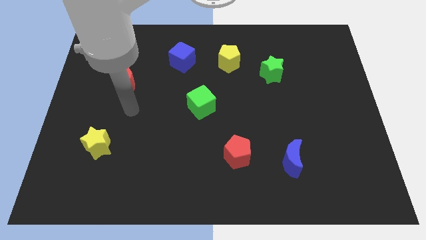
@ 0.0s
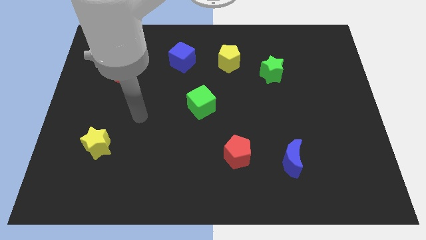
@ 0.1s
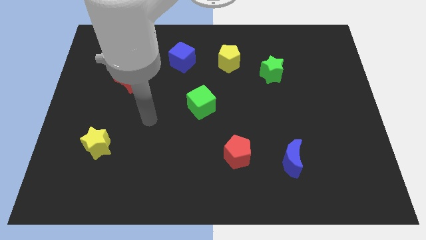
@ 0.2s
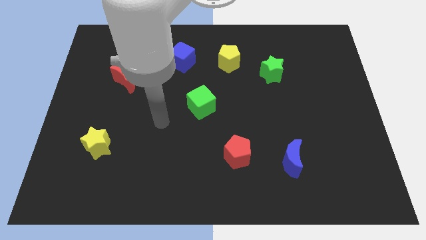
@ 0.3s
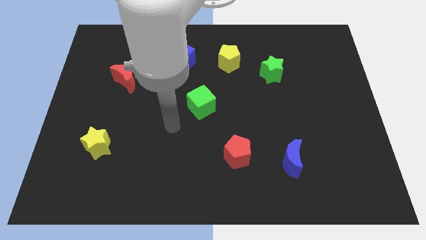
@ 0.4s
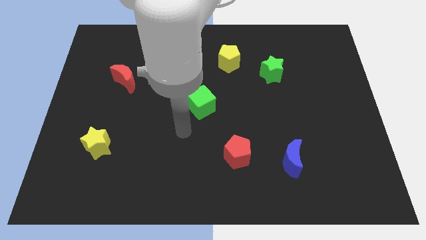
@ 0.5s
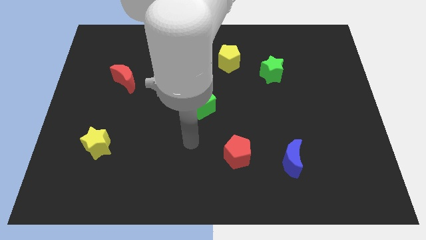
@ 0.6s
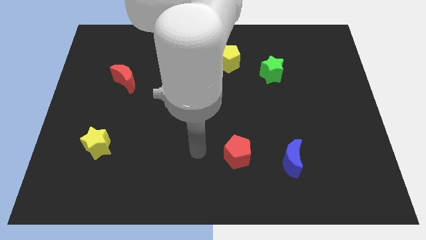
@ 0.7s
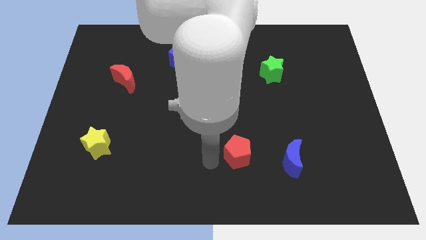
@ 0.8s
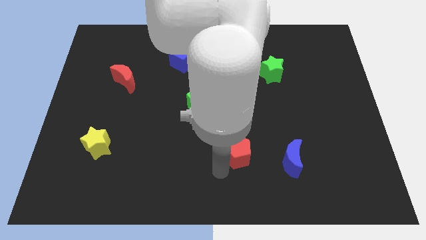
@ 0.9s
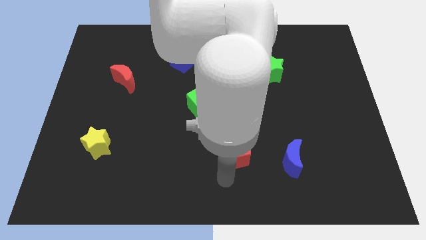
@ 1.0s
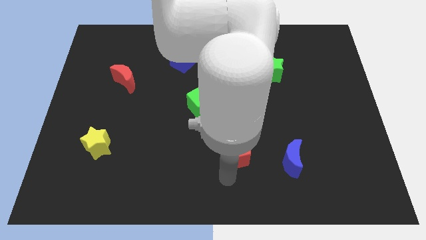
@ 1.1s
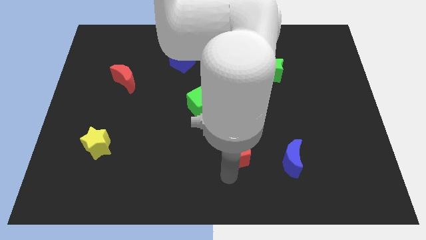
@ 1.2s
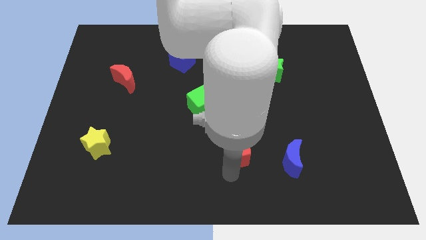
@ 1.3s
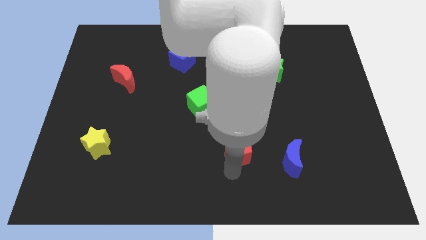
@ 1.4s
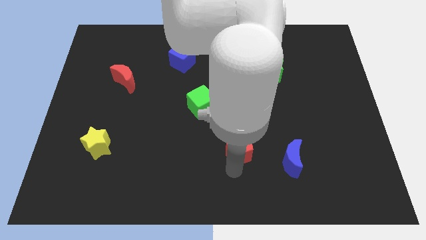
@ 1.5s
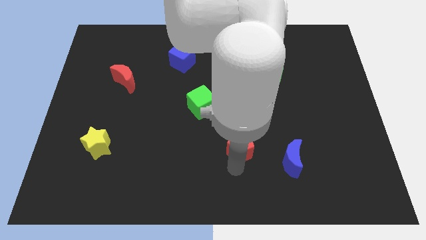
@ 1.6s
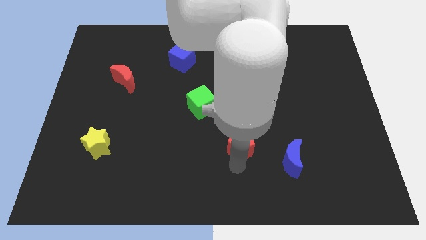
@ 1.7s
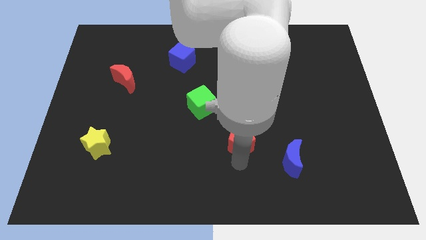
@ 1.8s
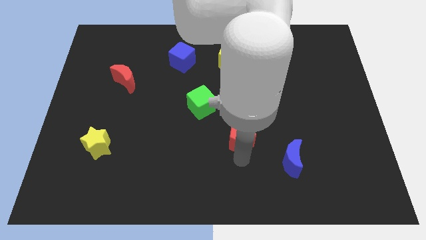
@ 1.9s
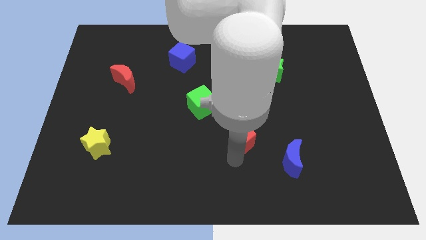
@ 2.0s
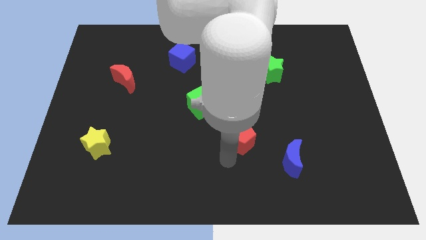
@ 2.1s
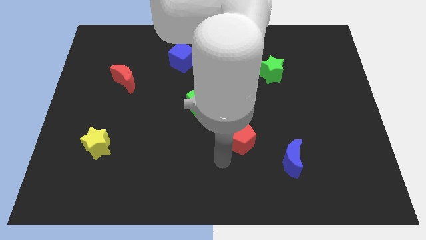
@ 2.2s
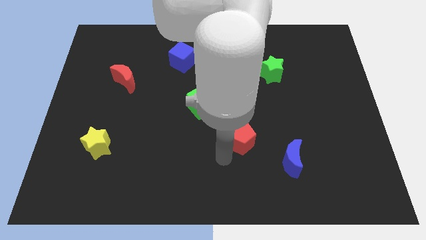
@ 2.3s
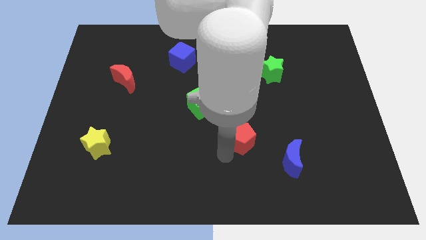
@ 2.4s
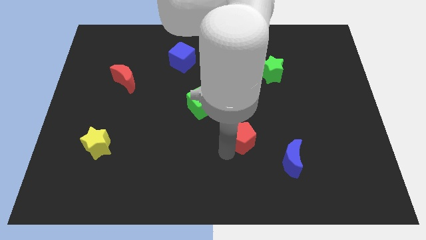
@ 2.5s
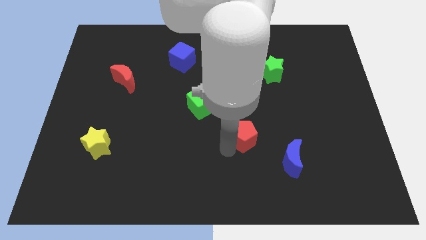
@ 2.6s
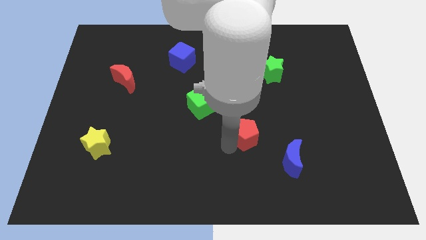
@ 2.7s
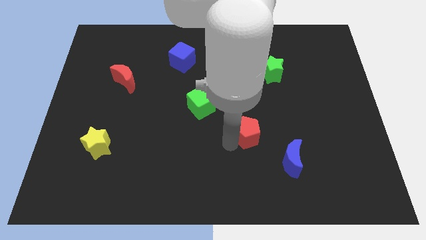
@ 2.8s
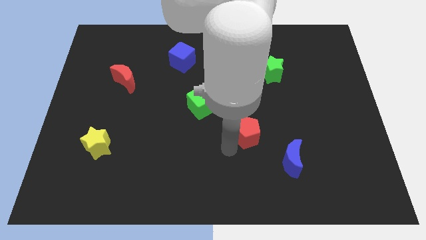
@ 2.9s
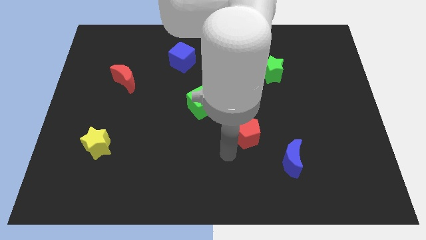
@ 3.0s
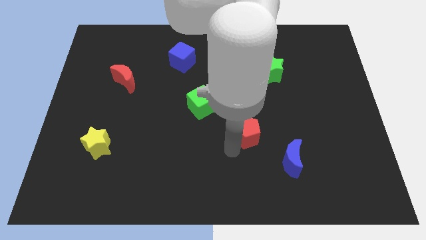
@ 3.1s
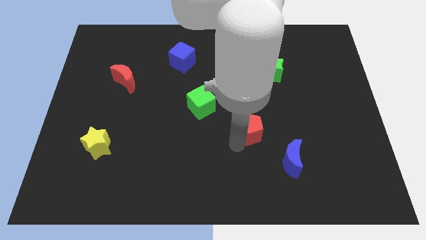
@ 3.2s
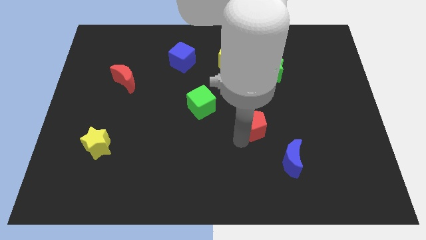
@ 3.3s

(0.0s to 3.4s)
move the red pentagon a little bit upwards and to the right

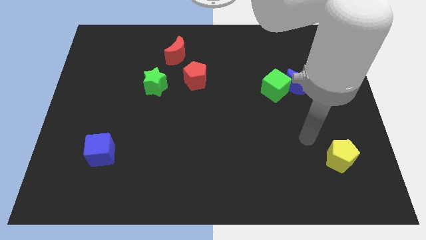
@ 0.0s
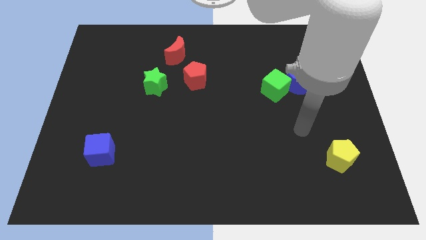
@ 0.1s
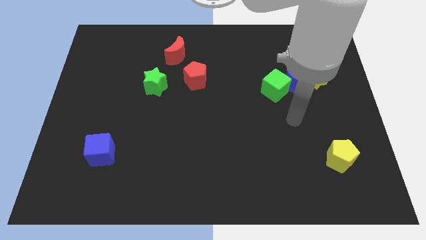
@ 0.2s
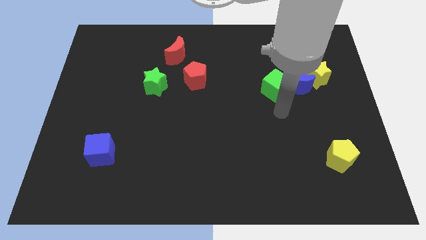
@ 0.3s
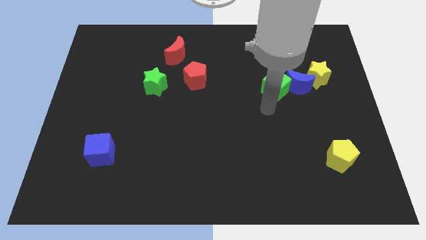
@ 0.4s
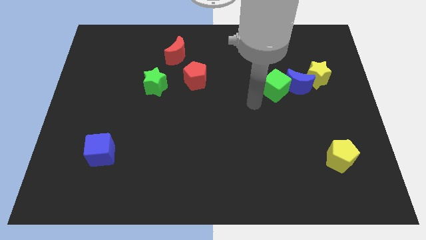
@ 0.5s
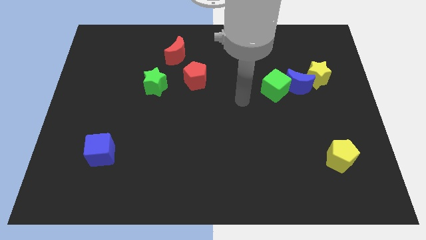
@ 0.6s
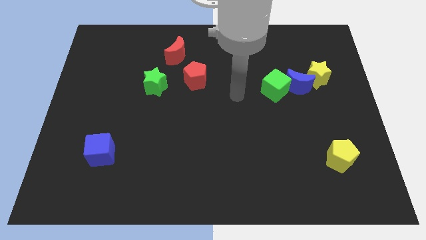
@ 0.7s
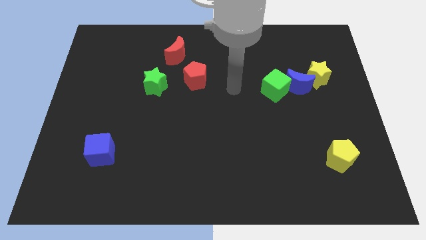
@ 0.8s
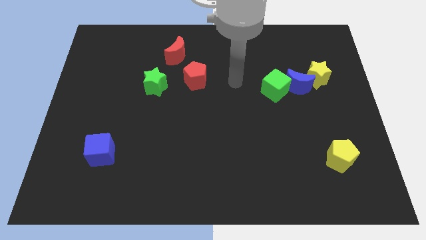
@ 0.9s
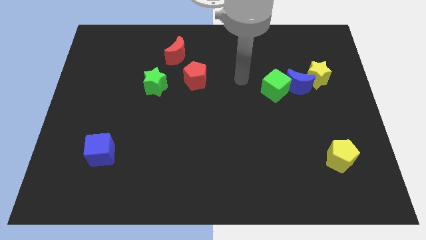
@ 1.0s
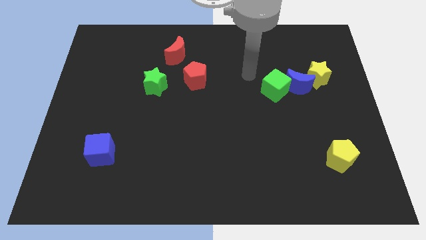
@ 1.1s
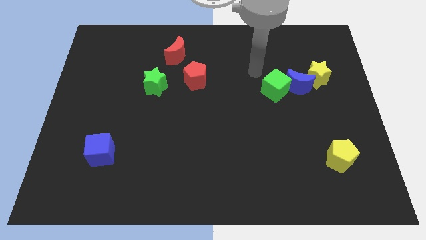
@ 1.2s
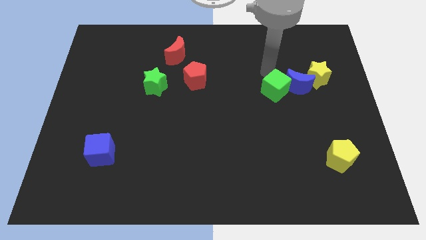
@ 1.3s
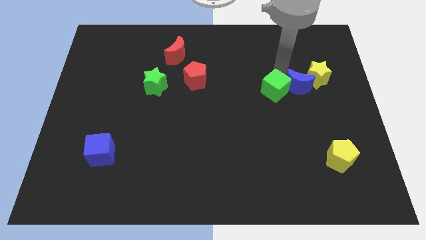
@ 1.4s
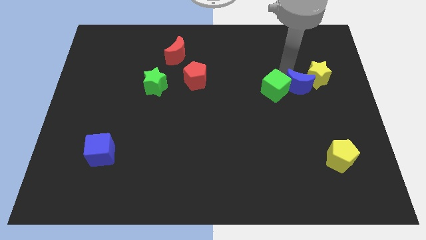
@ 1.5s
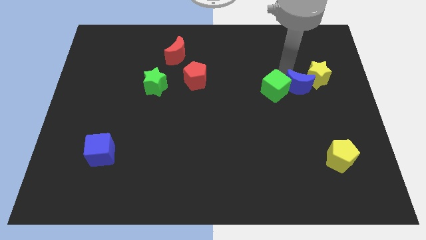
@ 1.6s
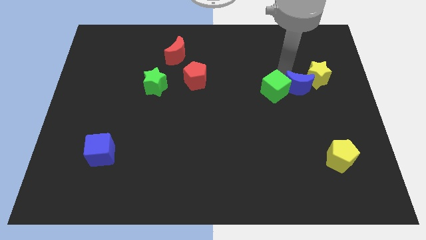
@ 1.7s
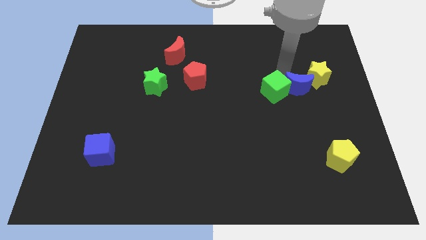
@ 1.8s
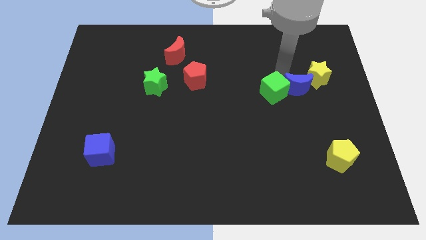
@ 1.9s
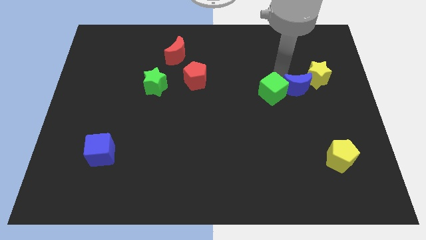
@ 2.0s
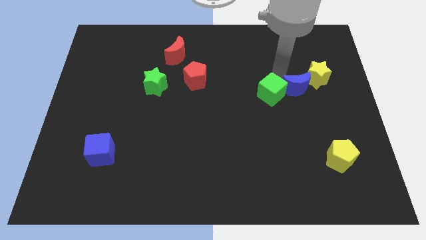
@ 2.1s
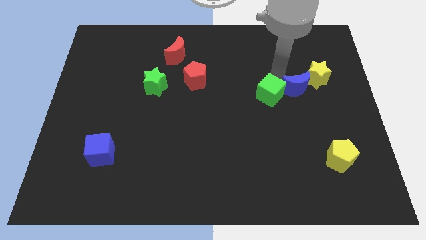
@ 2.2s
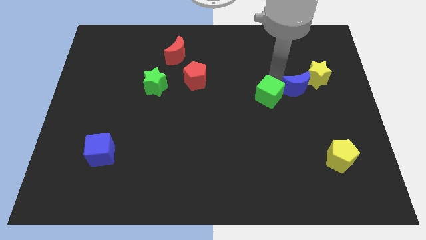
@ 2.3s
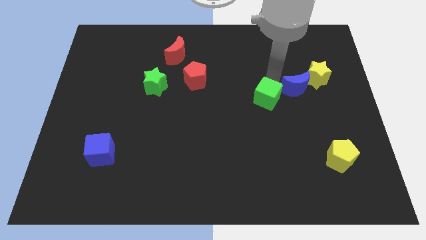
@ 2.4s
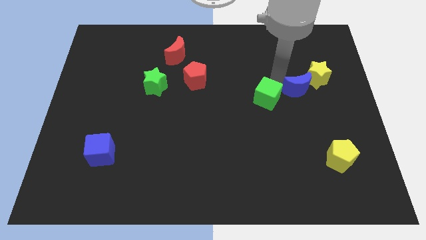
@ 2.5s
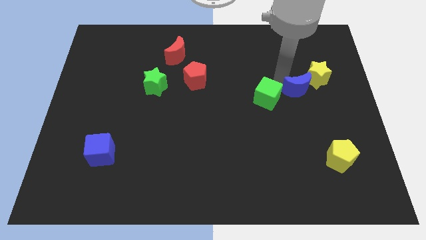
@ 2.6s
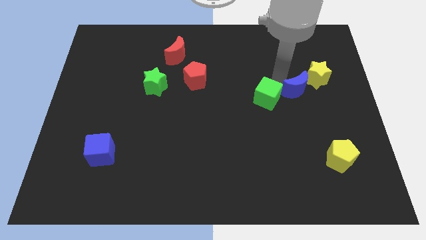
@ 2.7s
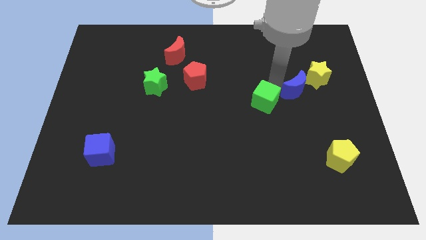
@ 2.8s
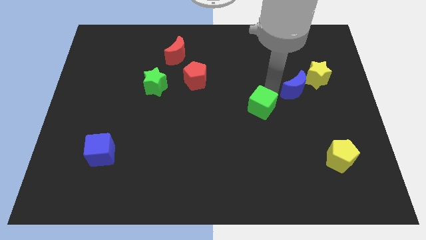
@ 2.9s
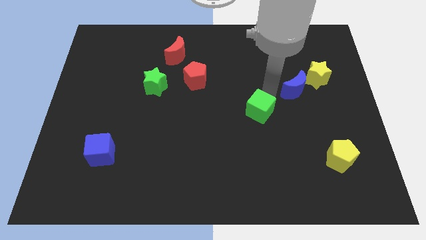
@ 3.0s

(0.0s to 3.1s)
move the green cube a bit diagonally downwards and to the left

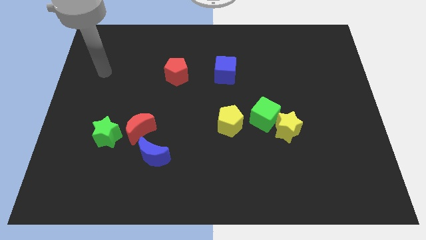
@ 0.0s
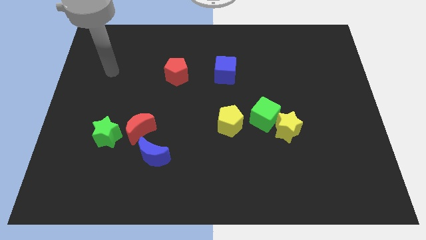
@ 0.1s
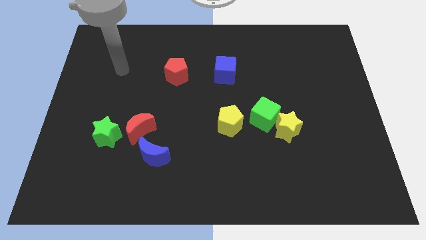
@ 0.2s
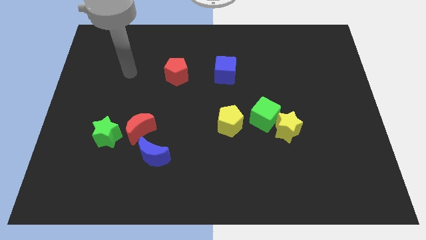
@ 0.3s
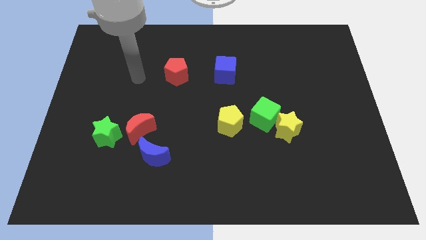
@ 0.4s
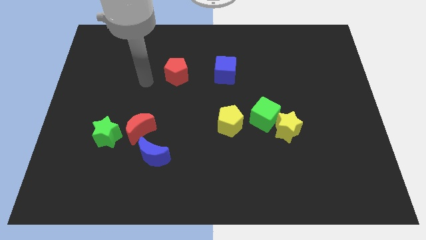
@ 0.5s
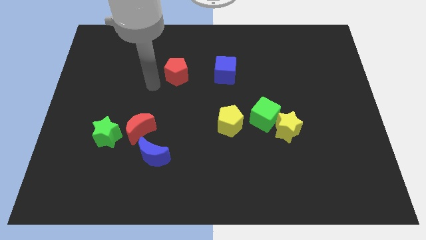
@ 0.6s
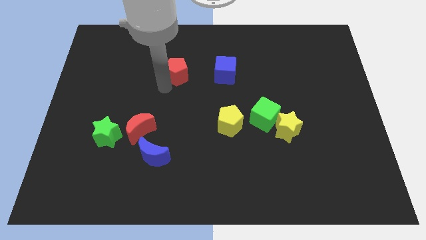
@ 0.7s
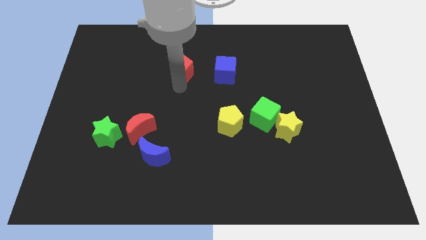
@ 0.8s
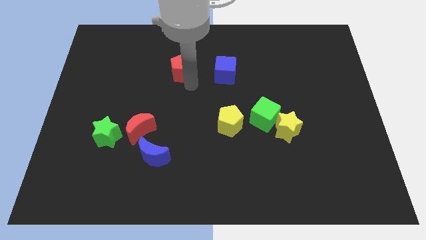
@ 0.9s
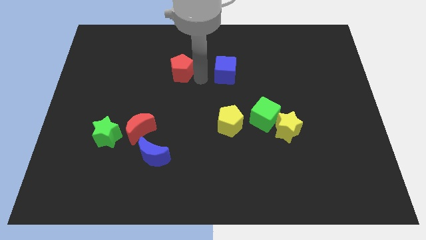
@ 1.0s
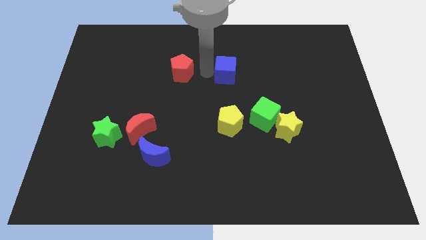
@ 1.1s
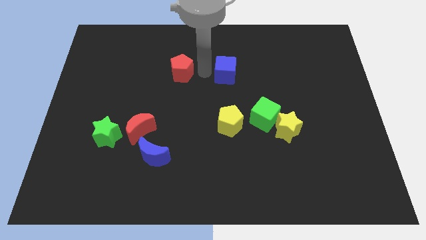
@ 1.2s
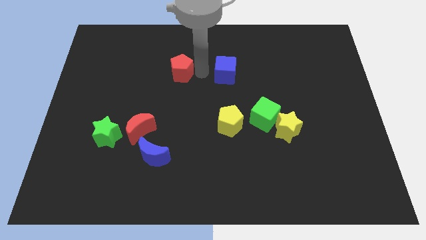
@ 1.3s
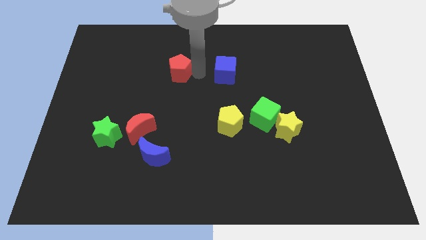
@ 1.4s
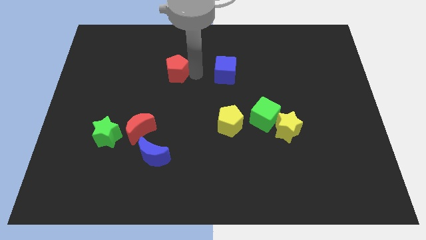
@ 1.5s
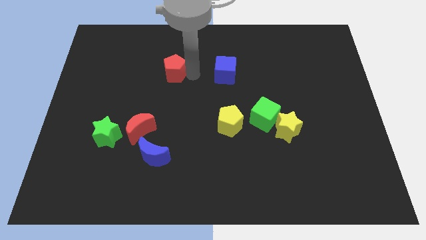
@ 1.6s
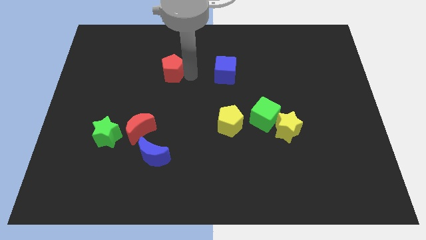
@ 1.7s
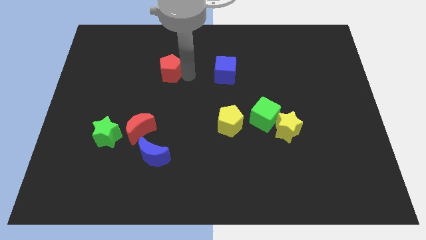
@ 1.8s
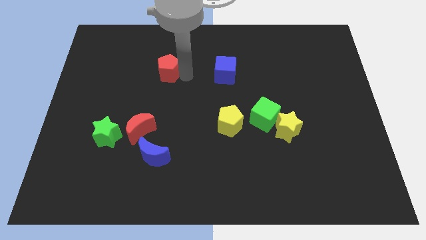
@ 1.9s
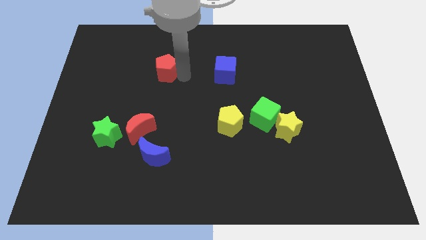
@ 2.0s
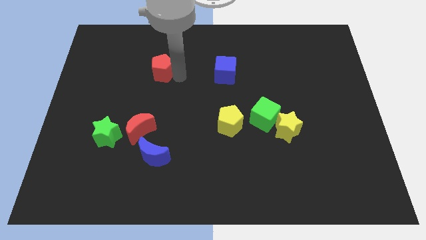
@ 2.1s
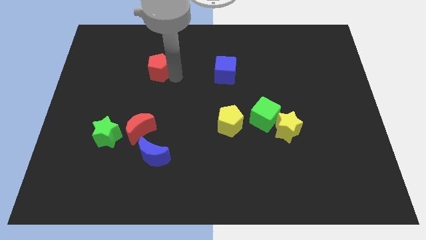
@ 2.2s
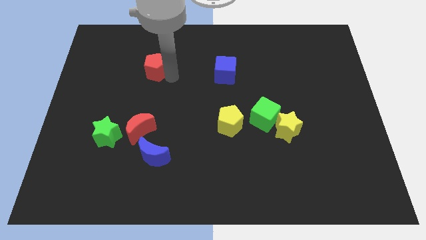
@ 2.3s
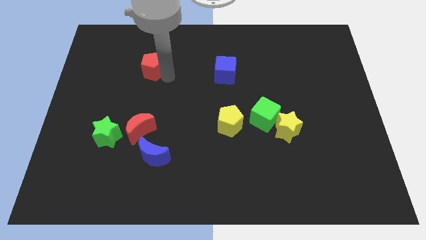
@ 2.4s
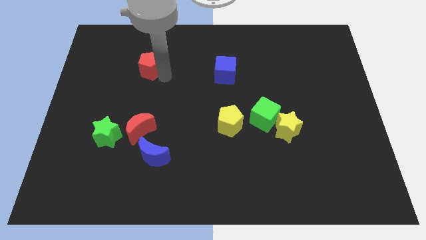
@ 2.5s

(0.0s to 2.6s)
push the red pentagon a bit to the left
